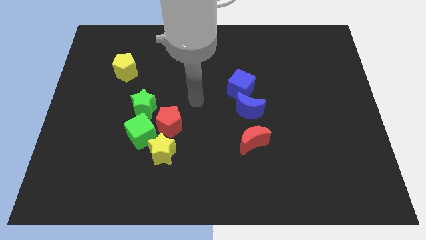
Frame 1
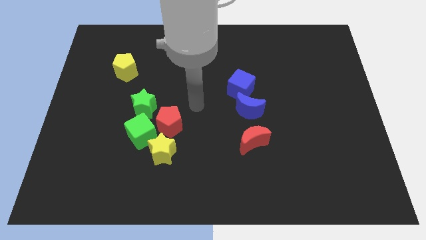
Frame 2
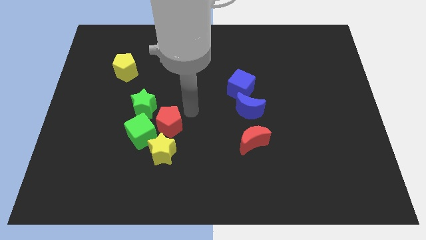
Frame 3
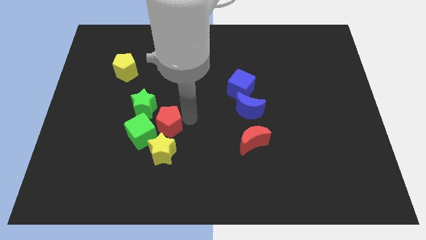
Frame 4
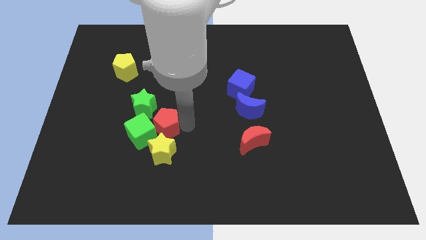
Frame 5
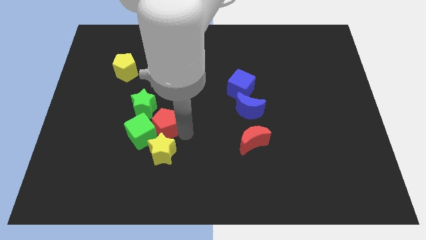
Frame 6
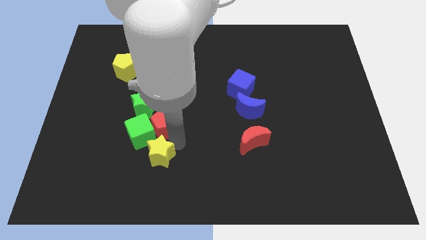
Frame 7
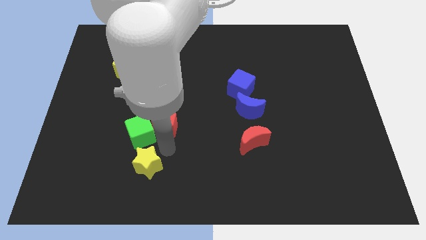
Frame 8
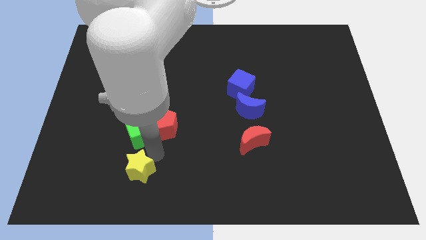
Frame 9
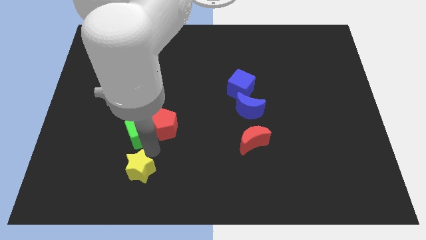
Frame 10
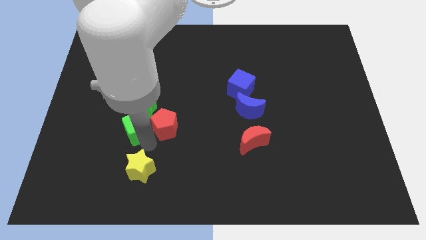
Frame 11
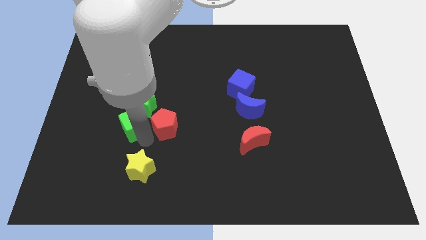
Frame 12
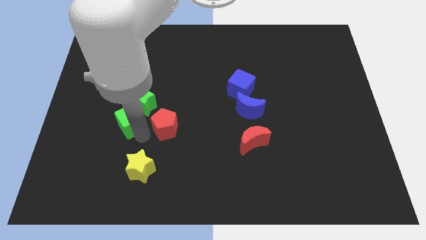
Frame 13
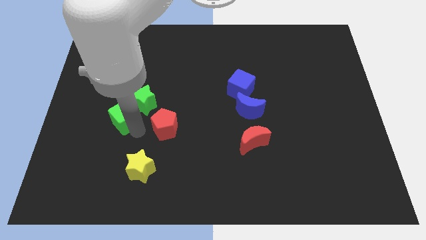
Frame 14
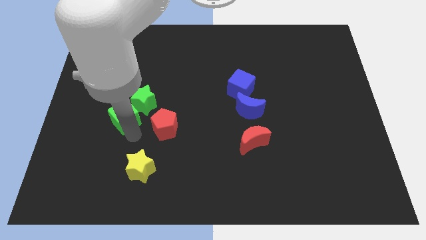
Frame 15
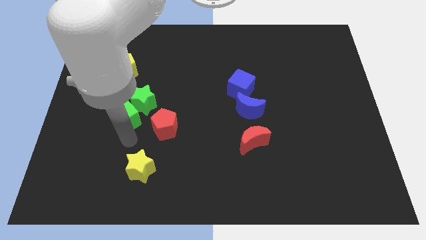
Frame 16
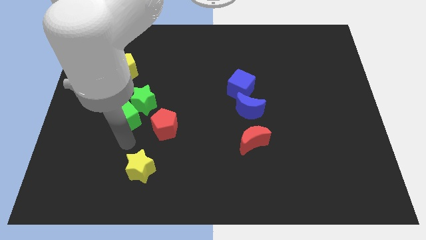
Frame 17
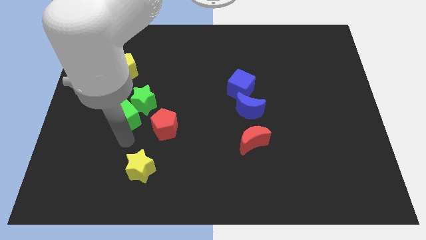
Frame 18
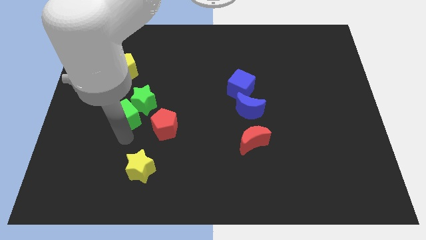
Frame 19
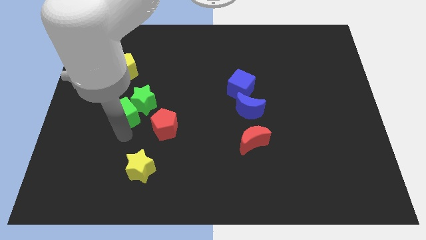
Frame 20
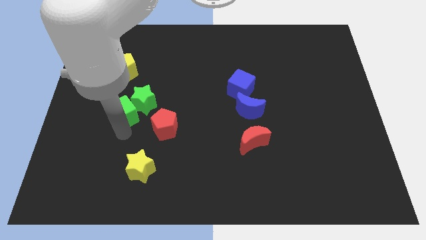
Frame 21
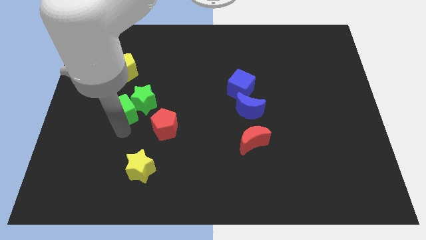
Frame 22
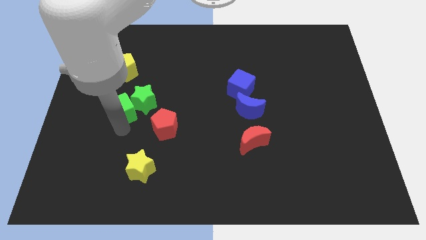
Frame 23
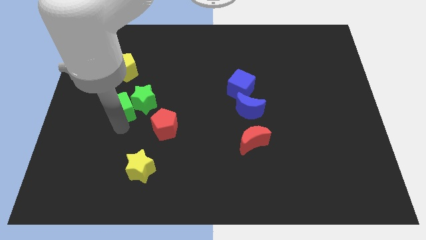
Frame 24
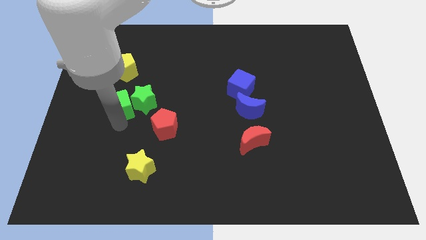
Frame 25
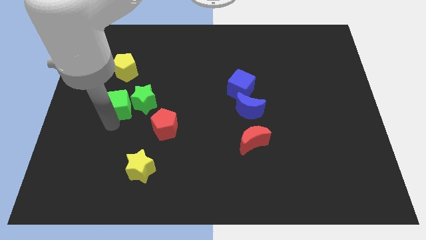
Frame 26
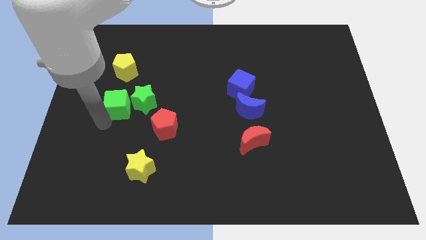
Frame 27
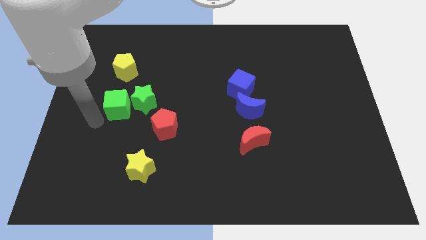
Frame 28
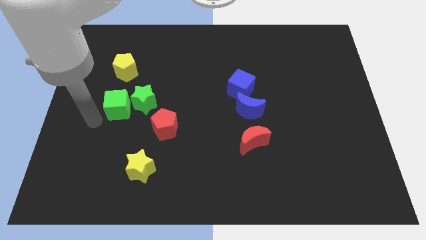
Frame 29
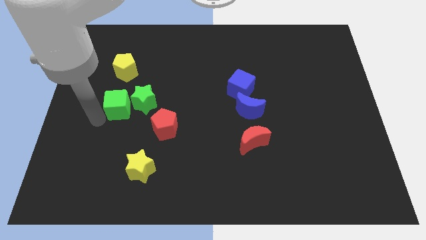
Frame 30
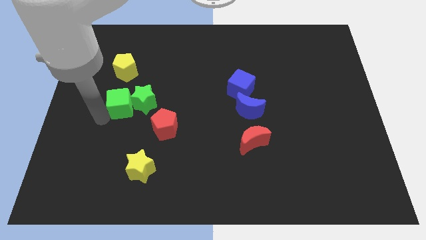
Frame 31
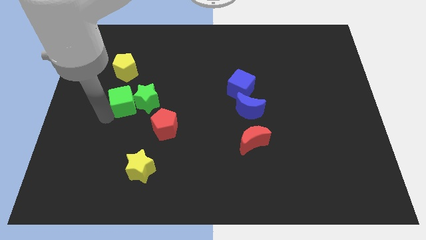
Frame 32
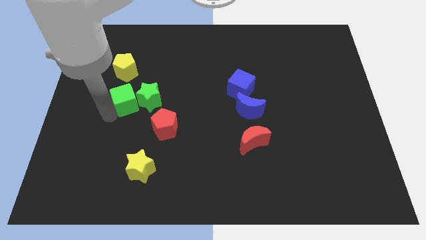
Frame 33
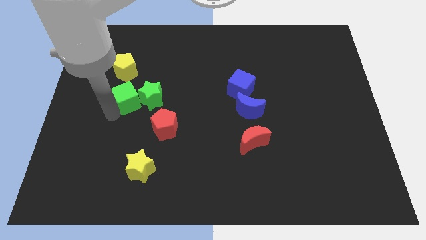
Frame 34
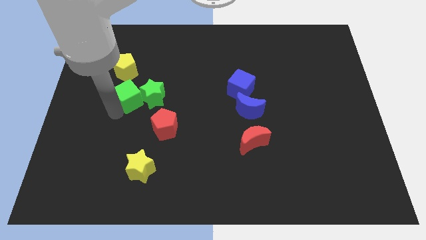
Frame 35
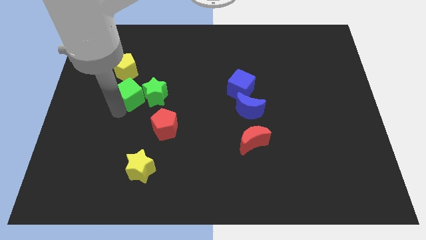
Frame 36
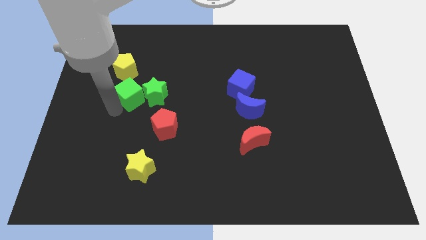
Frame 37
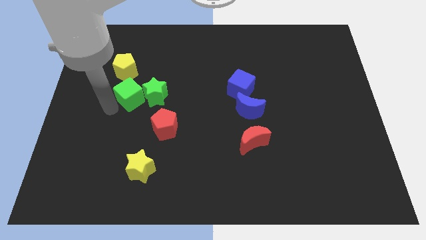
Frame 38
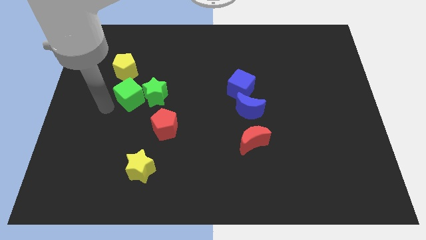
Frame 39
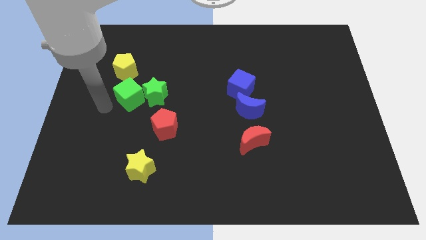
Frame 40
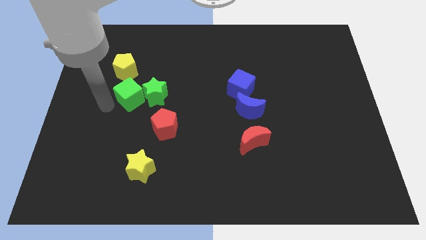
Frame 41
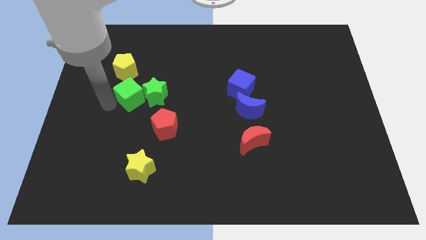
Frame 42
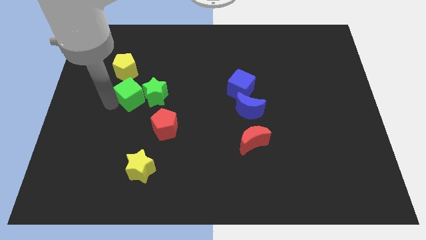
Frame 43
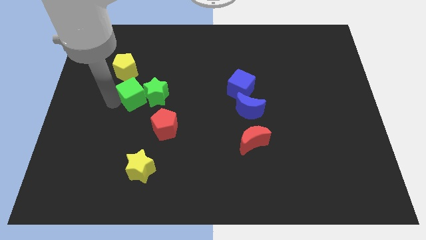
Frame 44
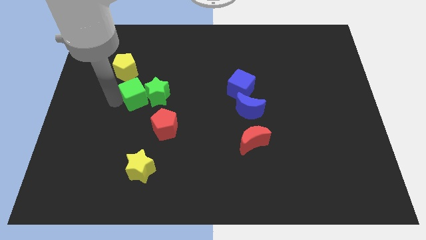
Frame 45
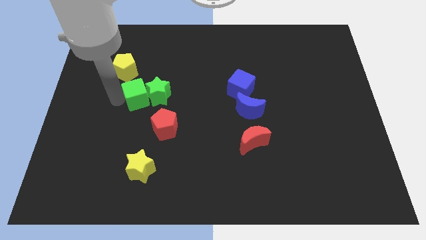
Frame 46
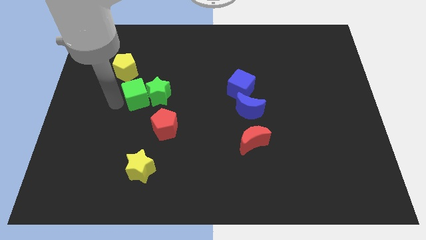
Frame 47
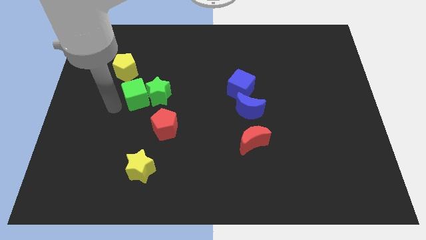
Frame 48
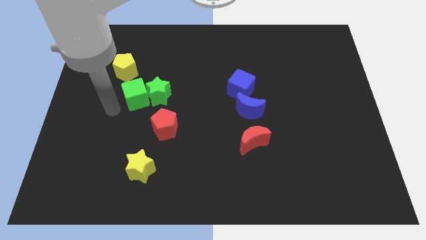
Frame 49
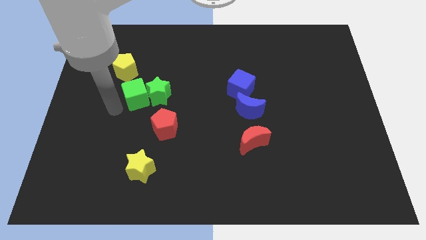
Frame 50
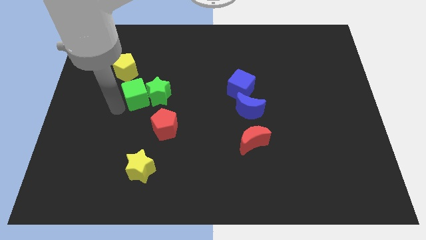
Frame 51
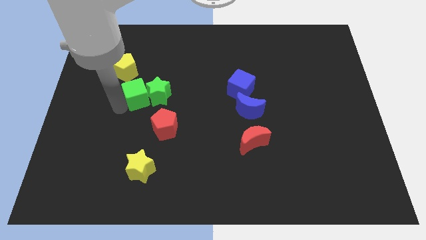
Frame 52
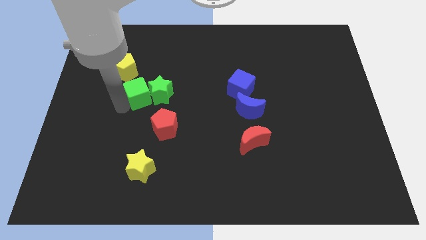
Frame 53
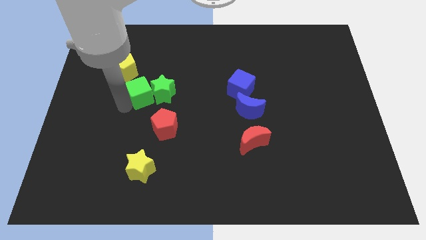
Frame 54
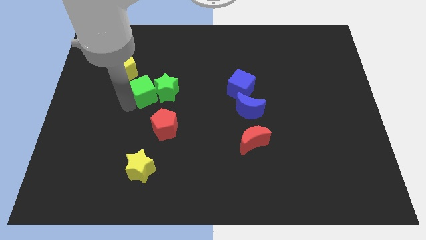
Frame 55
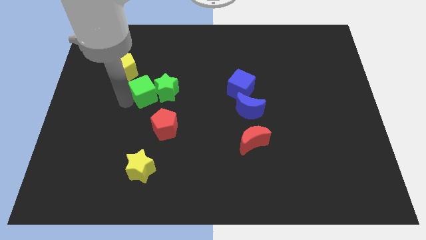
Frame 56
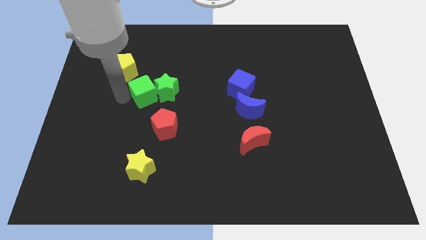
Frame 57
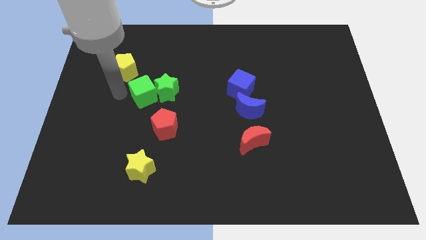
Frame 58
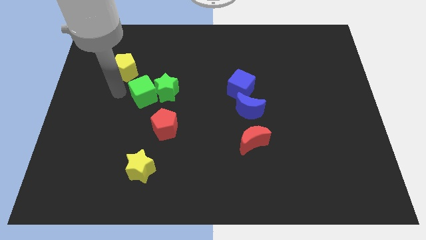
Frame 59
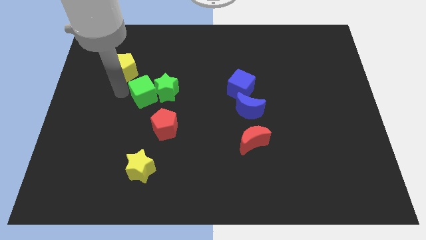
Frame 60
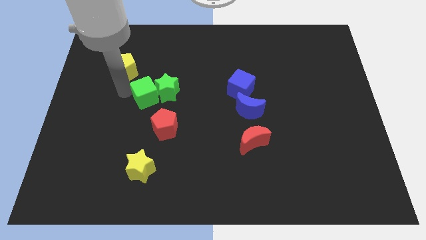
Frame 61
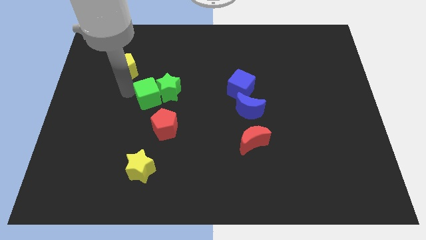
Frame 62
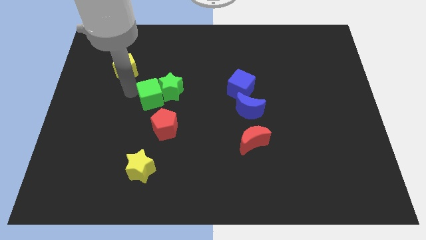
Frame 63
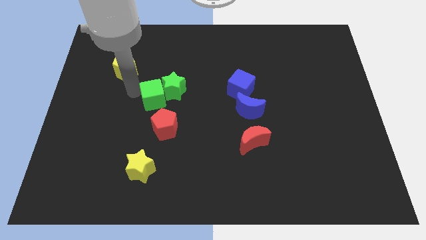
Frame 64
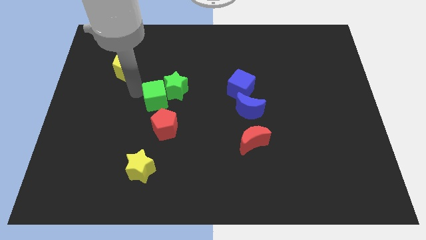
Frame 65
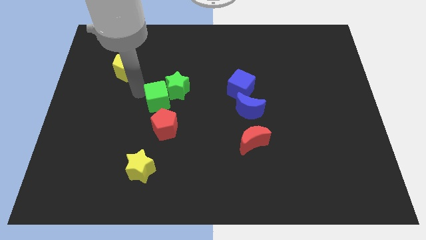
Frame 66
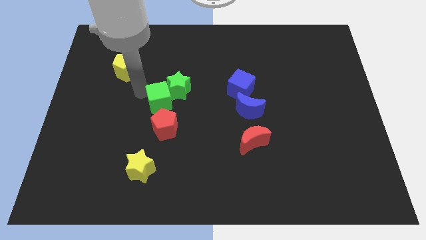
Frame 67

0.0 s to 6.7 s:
move the green cube to the center
